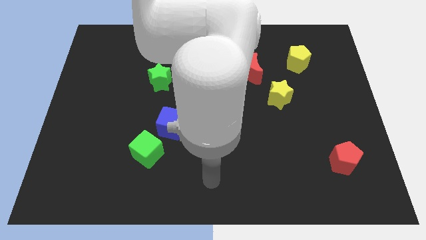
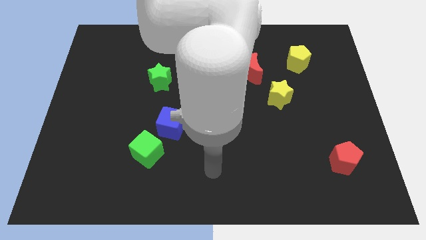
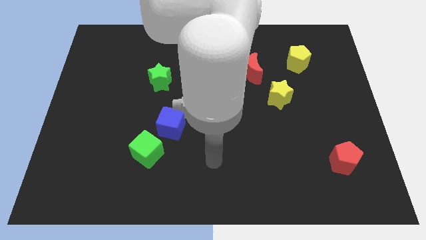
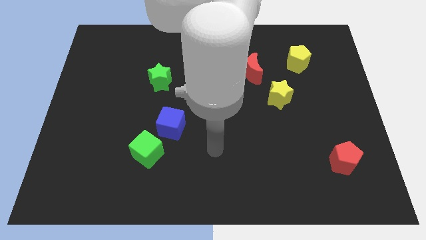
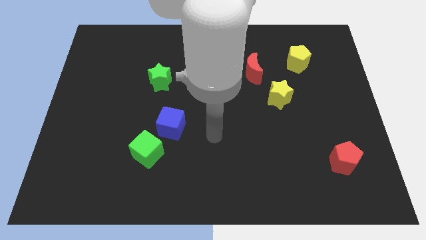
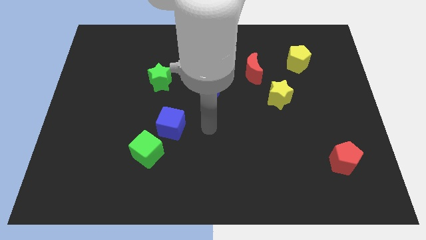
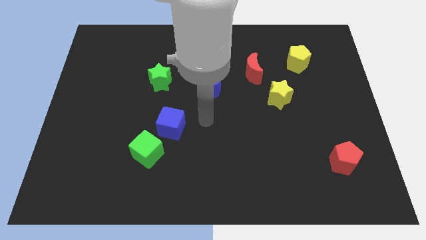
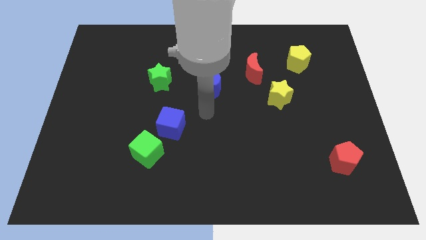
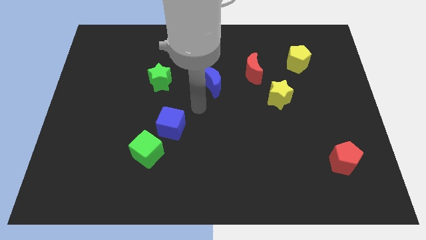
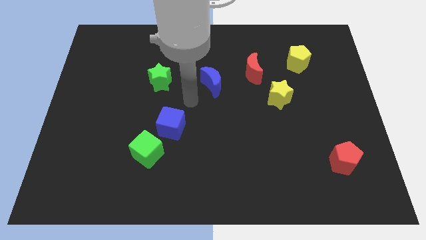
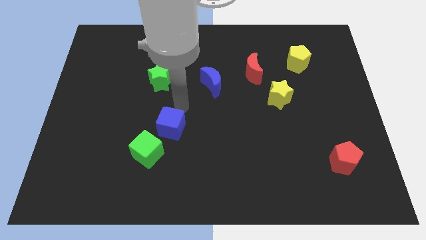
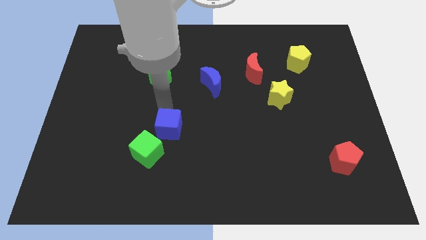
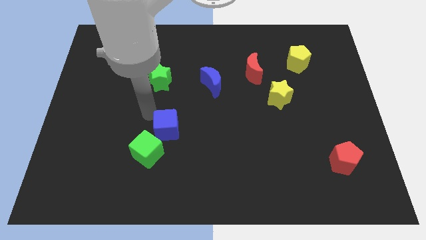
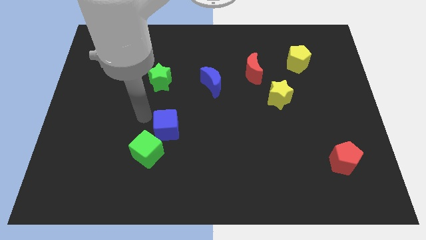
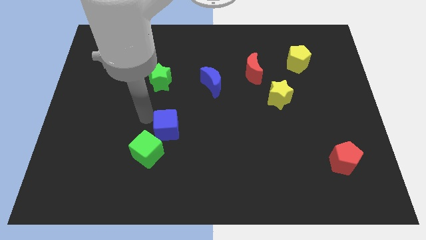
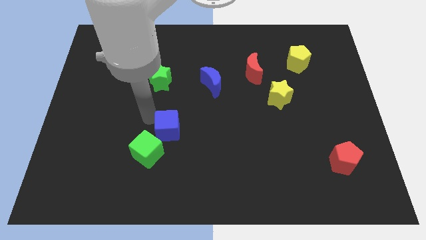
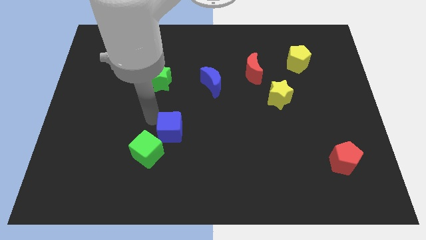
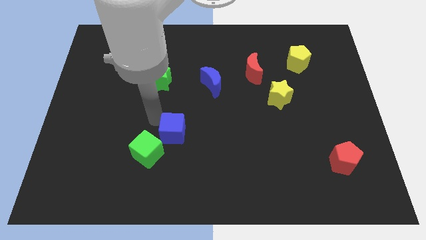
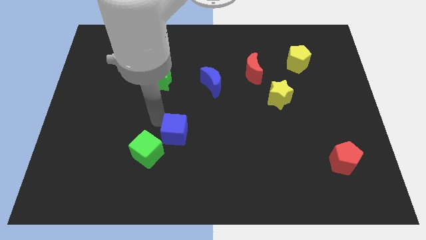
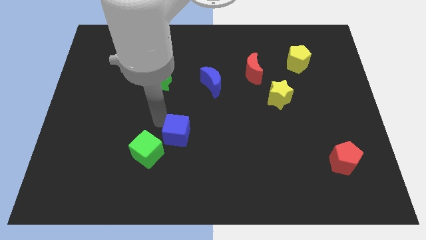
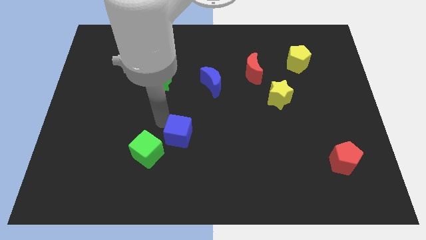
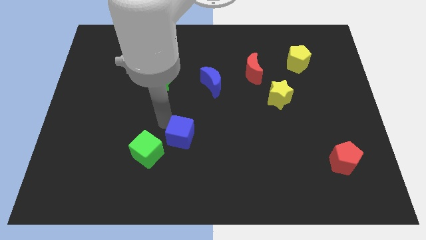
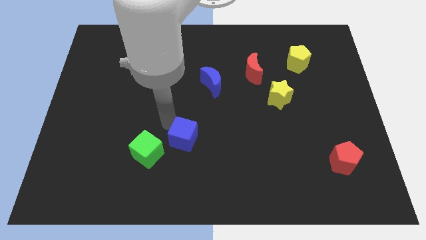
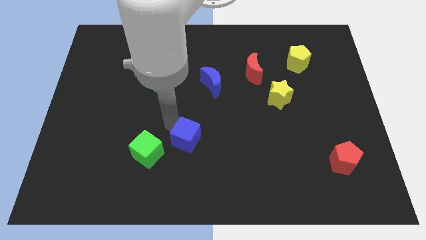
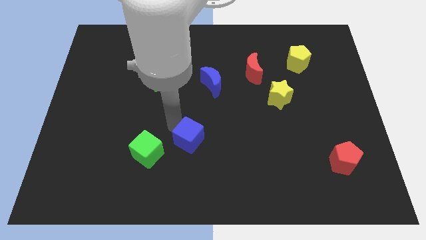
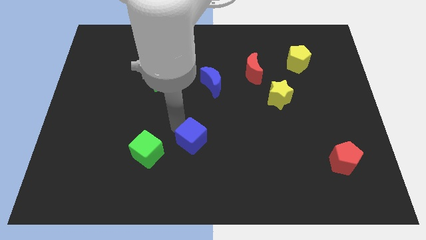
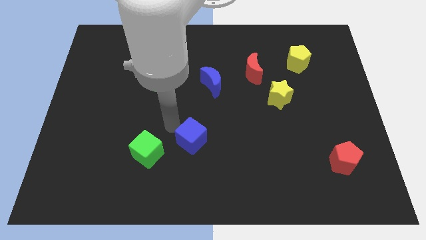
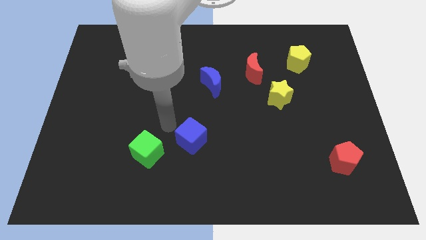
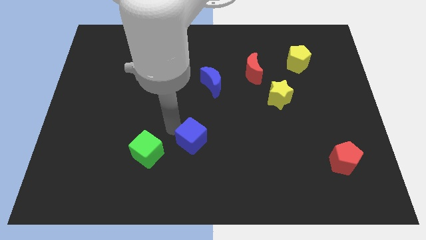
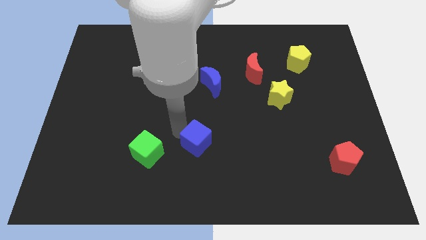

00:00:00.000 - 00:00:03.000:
slide the blue cube diagonally down and to the right slightly

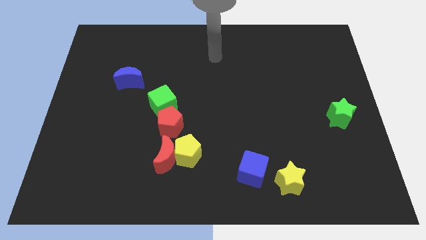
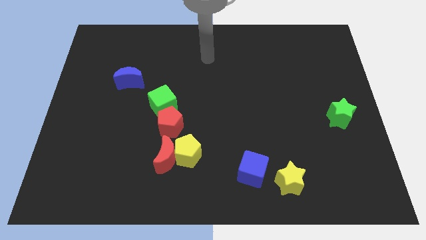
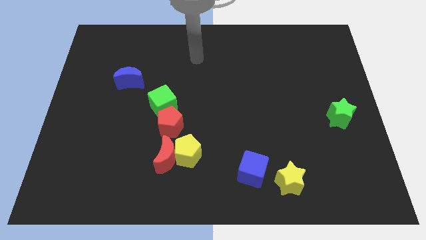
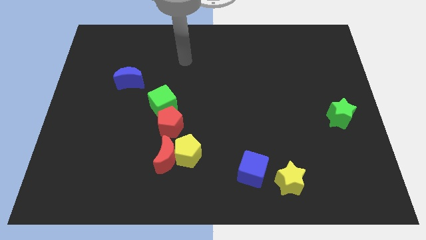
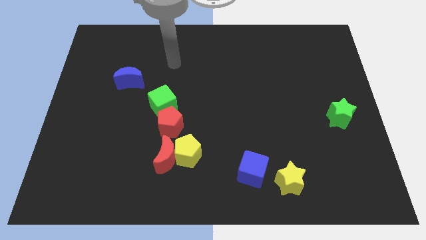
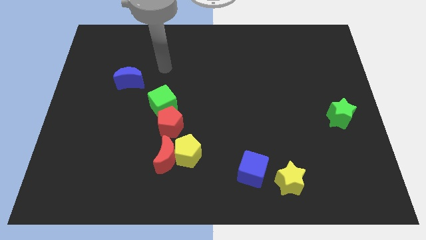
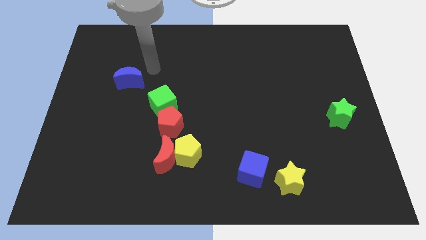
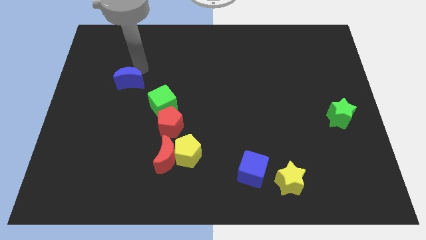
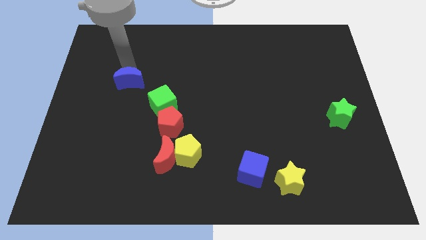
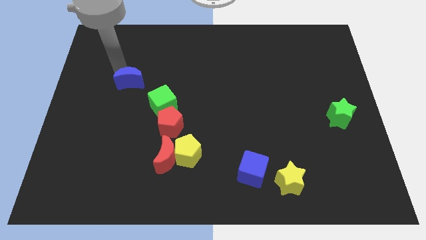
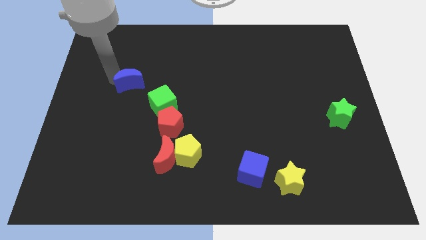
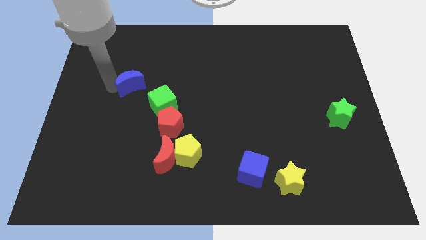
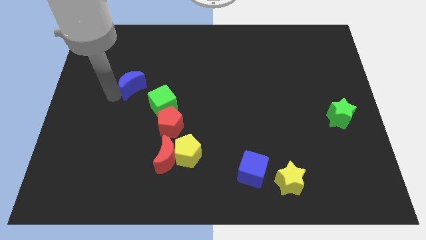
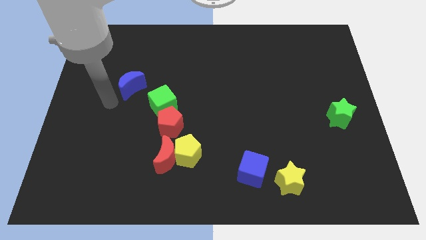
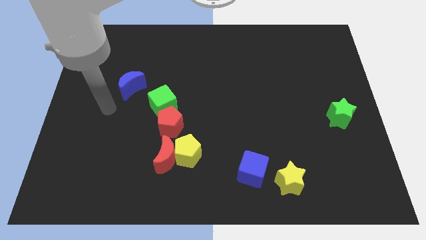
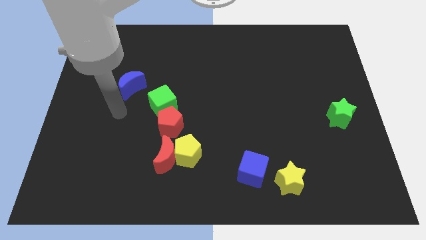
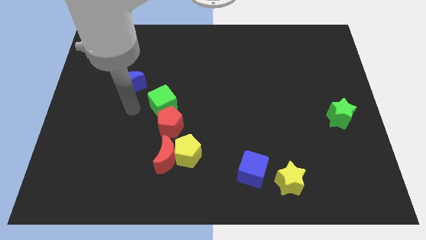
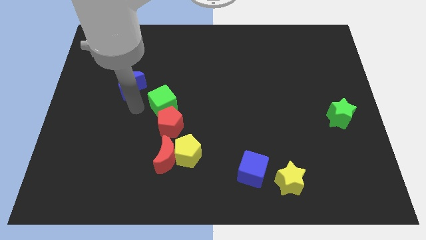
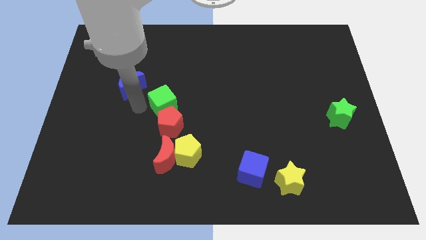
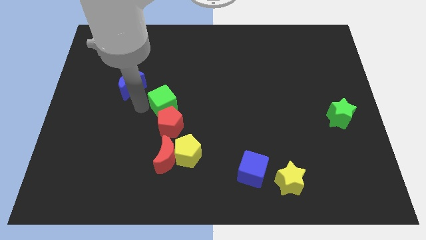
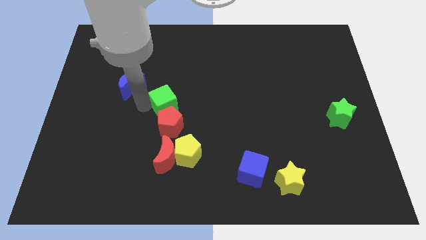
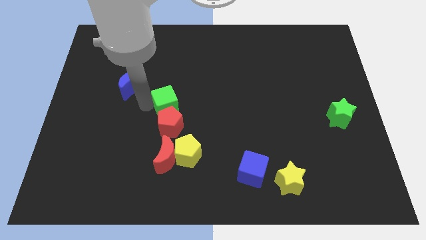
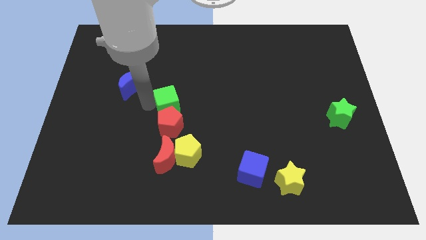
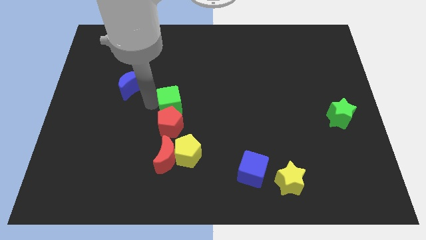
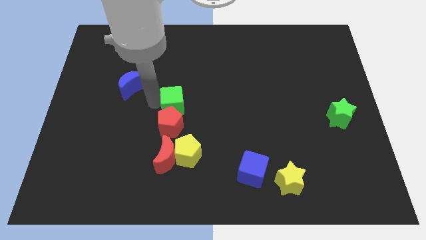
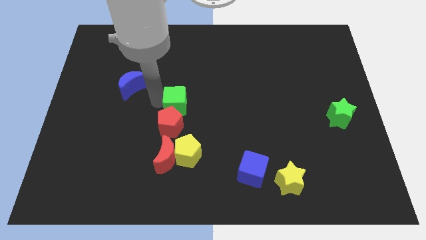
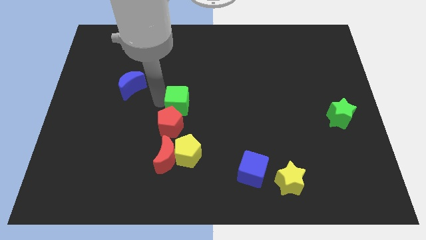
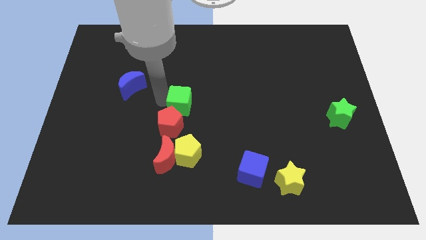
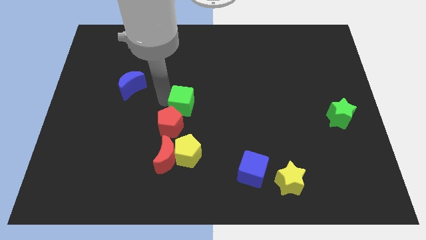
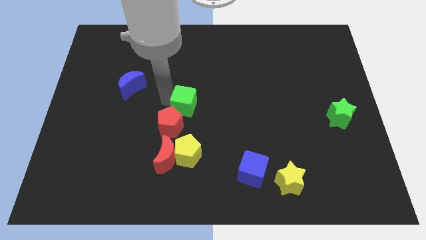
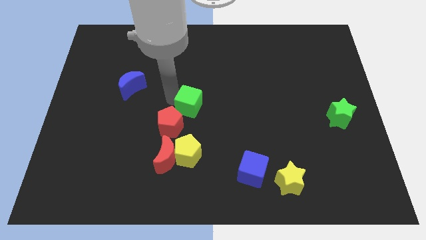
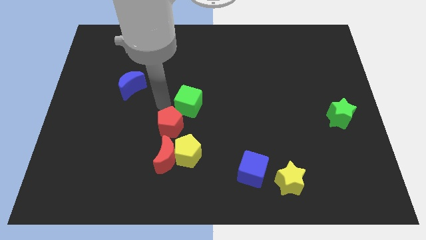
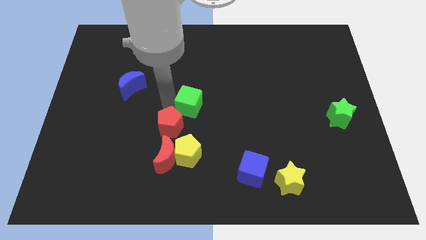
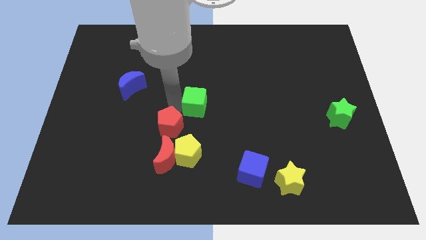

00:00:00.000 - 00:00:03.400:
move the green cube a little to the right

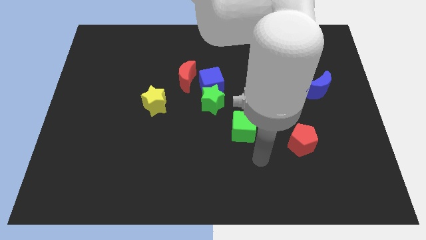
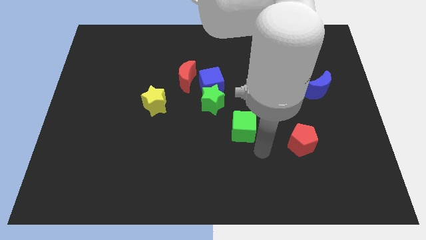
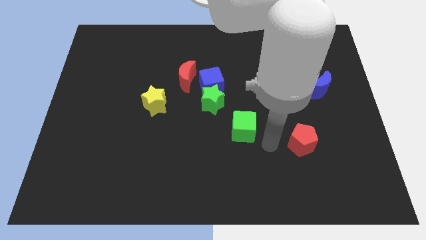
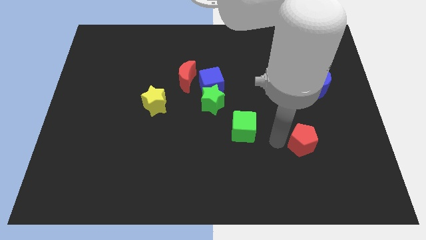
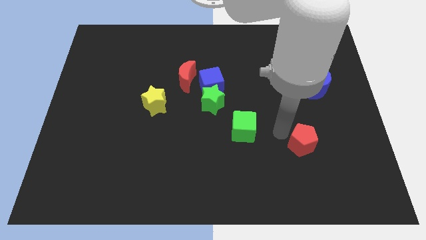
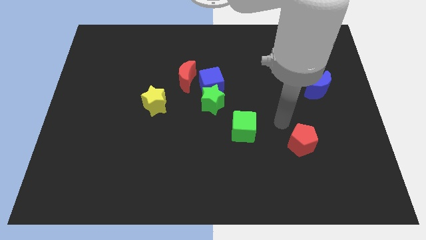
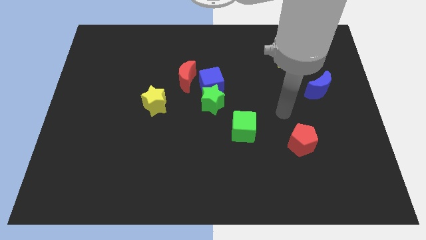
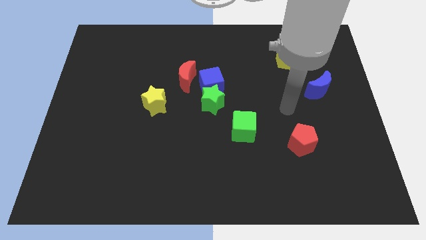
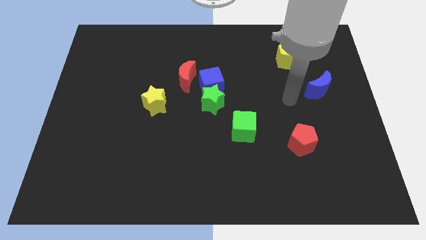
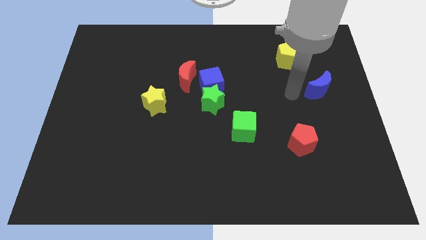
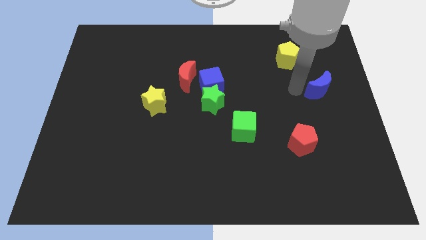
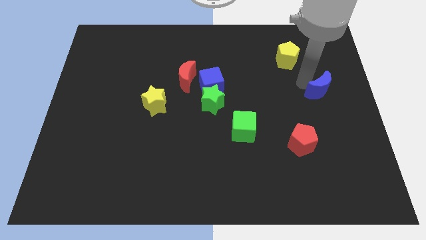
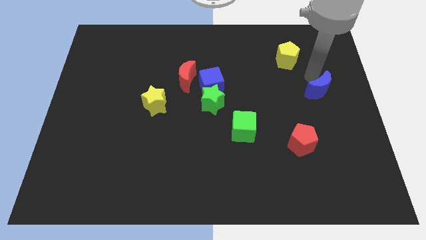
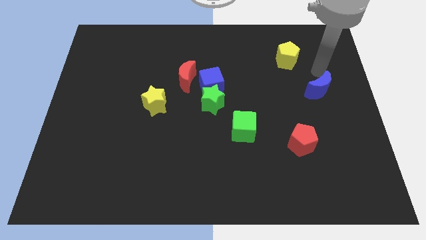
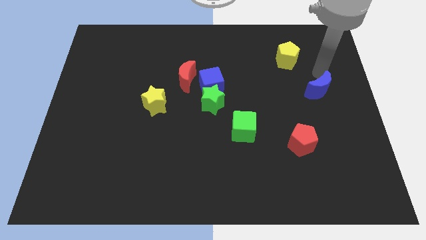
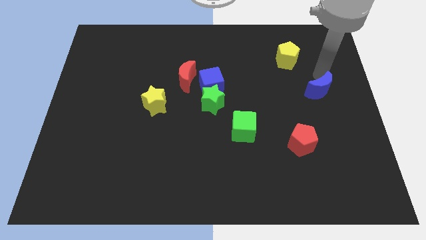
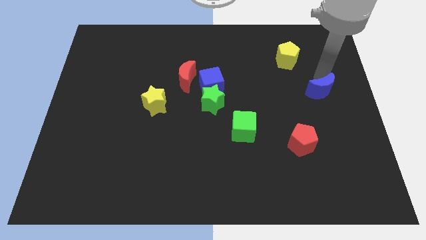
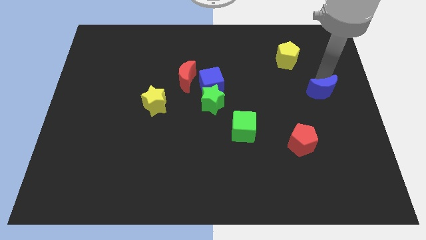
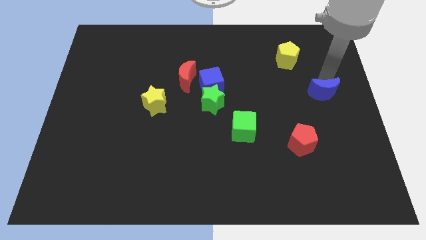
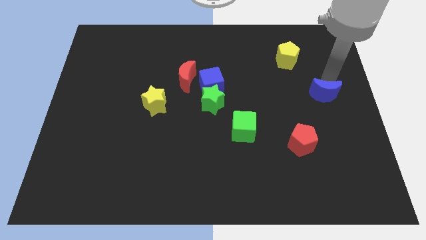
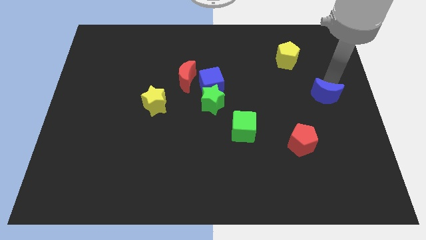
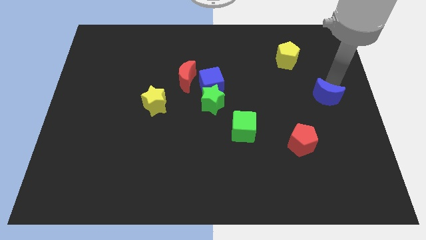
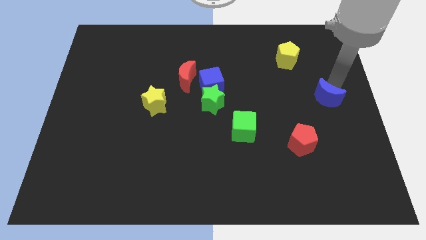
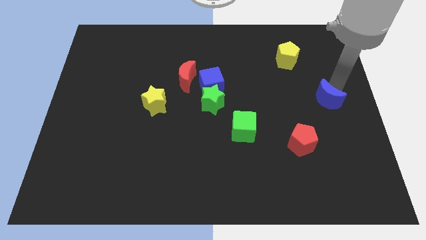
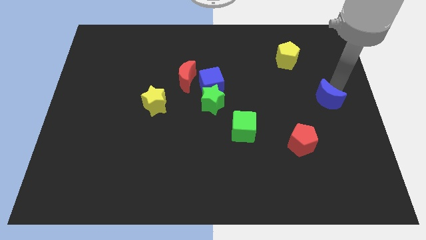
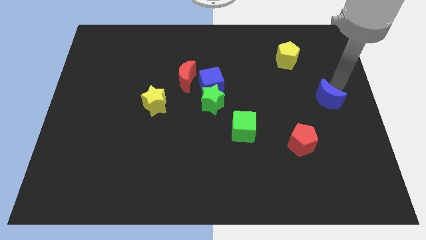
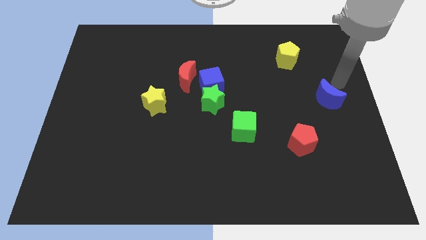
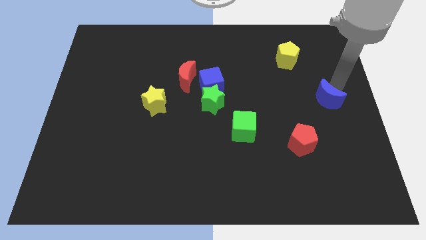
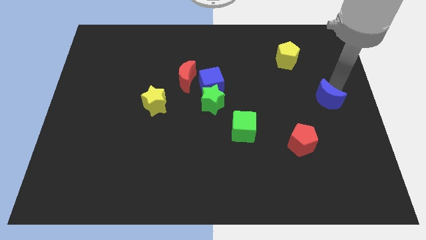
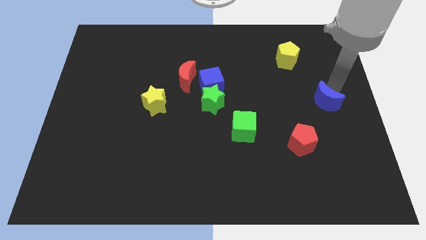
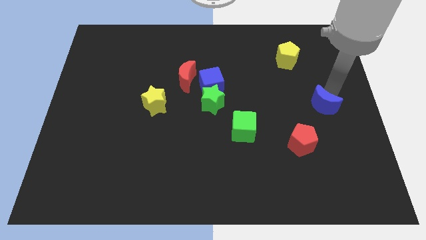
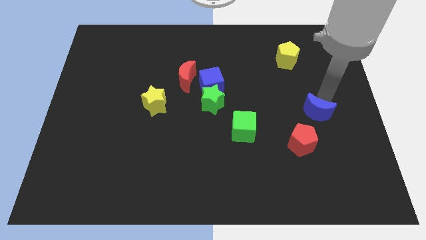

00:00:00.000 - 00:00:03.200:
slightly push the blue moon downwards
